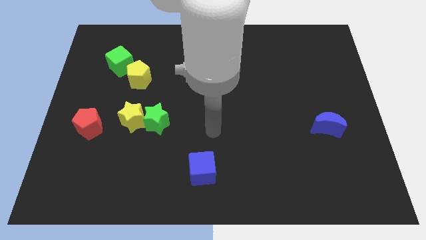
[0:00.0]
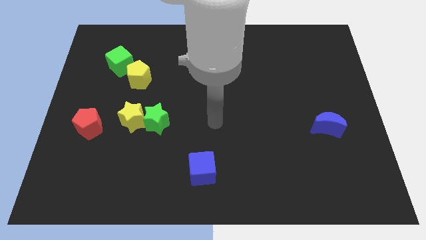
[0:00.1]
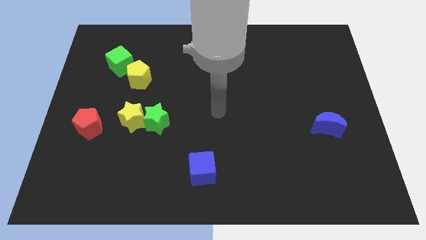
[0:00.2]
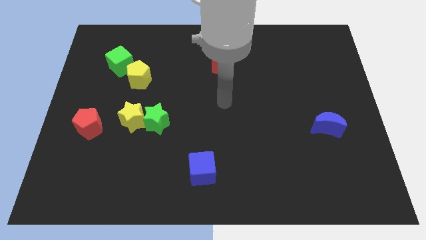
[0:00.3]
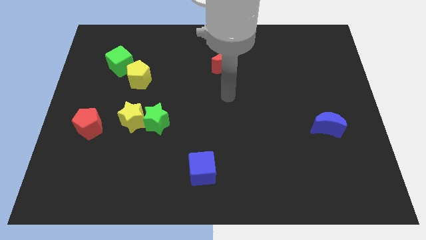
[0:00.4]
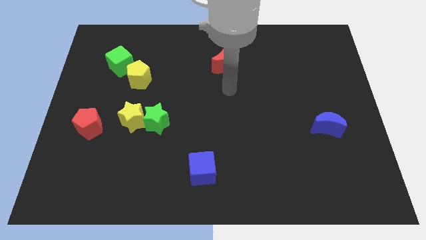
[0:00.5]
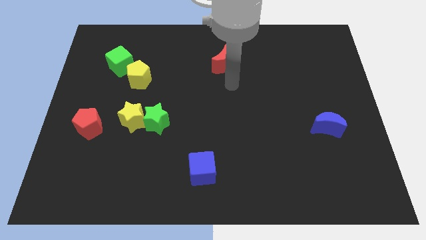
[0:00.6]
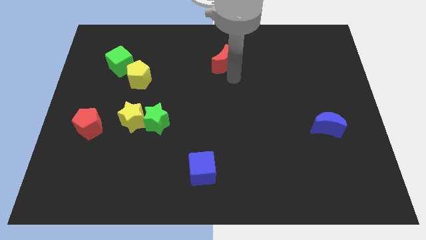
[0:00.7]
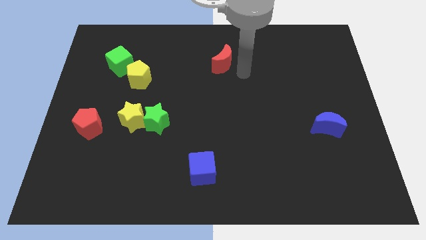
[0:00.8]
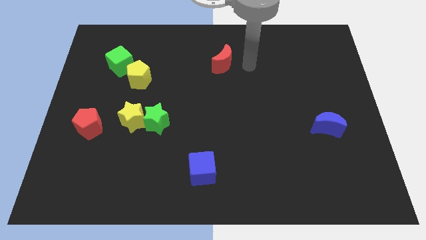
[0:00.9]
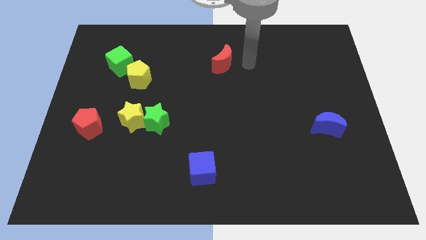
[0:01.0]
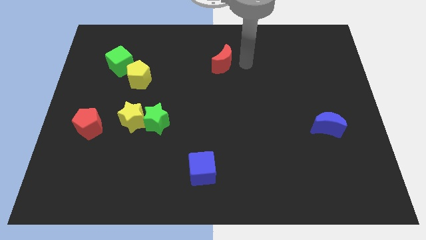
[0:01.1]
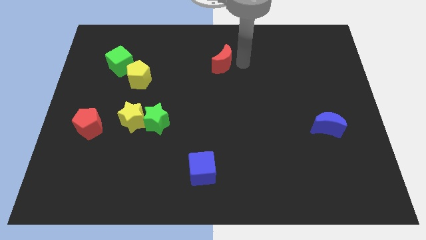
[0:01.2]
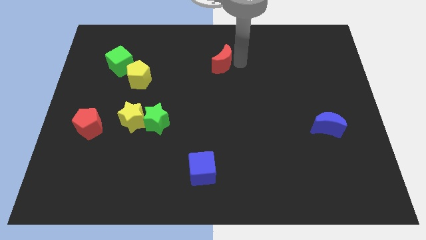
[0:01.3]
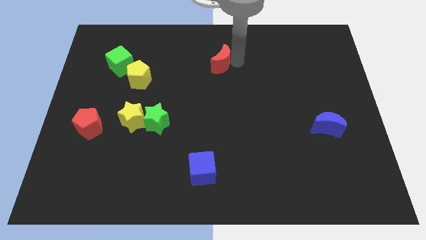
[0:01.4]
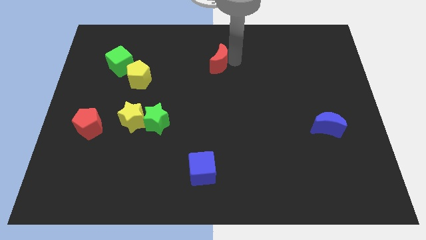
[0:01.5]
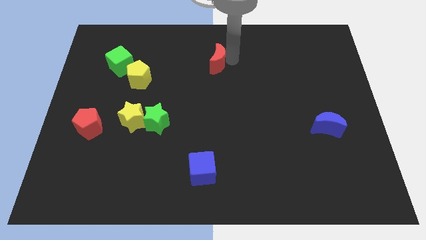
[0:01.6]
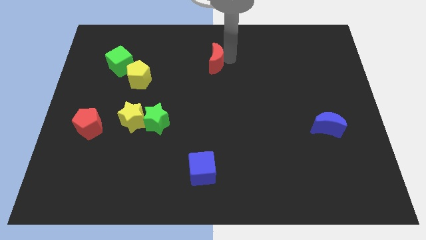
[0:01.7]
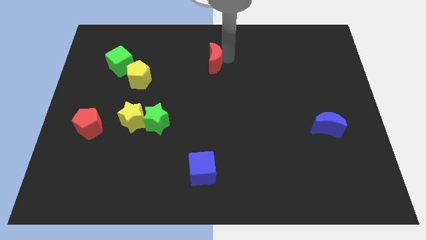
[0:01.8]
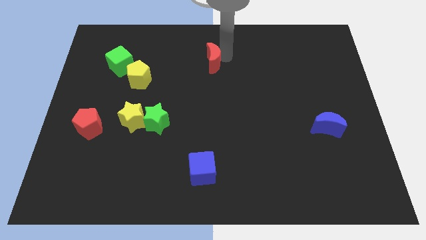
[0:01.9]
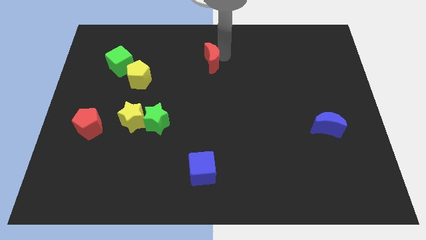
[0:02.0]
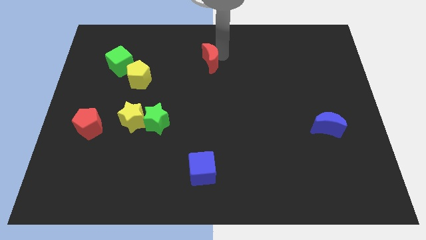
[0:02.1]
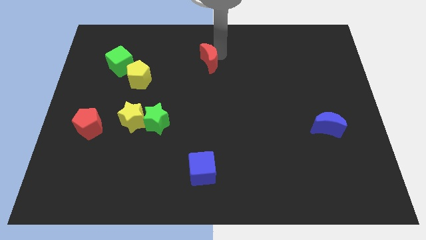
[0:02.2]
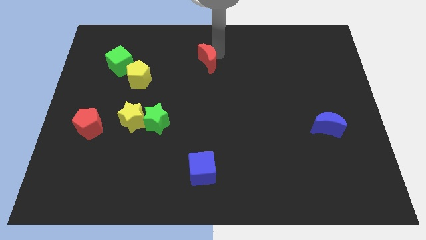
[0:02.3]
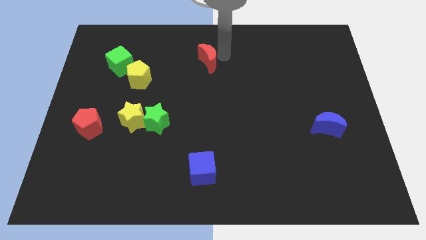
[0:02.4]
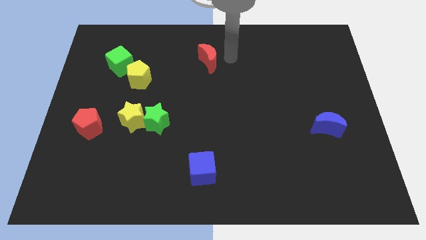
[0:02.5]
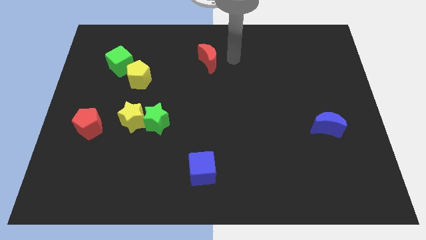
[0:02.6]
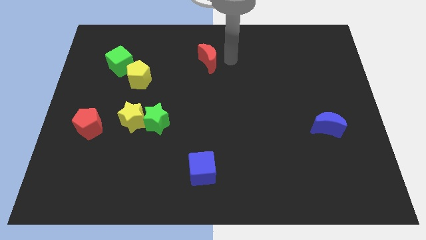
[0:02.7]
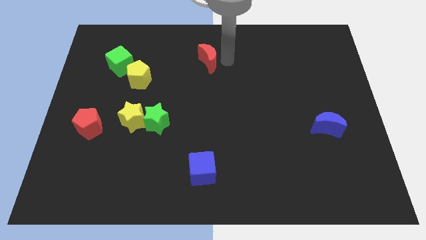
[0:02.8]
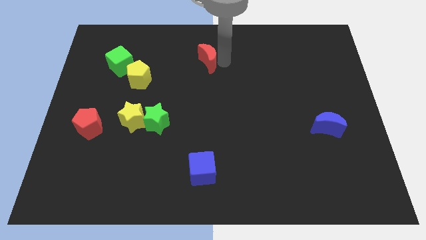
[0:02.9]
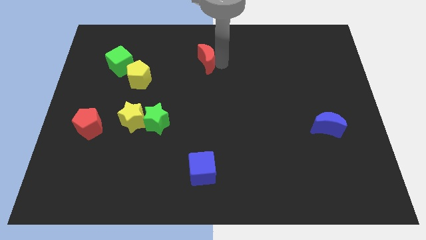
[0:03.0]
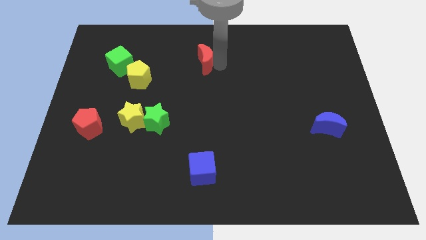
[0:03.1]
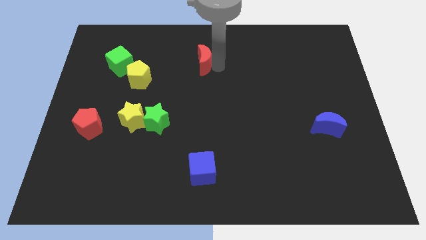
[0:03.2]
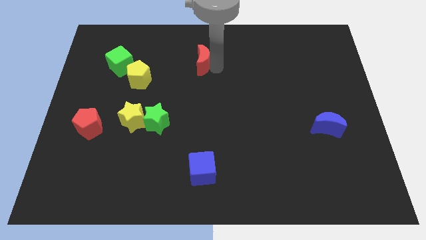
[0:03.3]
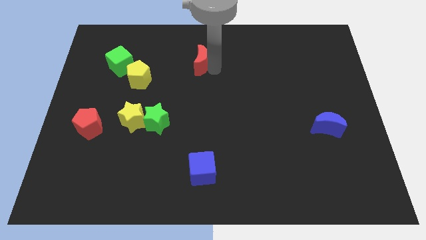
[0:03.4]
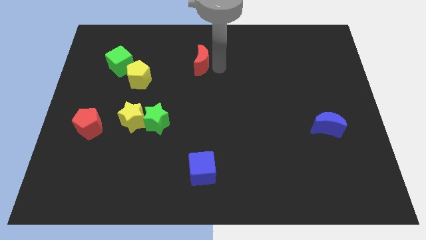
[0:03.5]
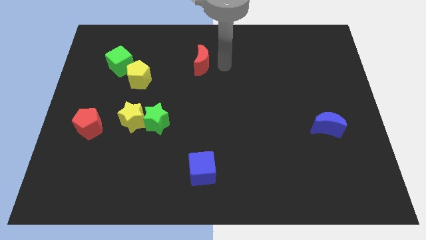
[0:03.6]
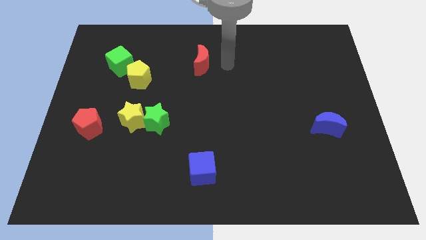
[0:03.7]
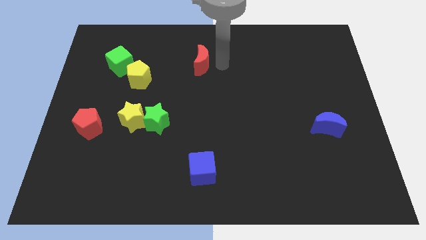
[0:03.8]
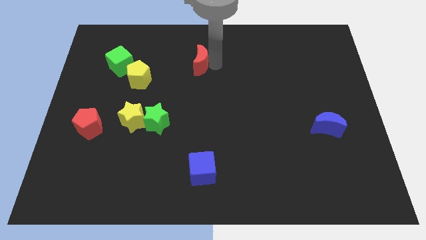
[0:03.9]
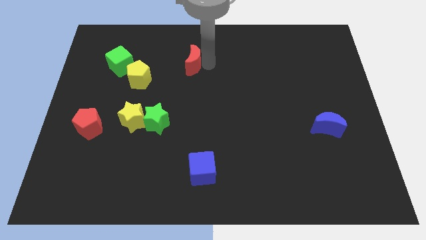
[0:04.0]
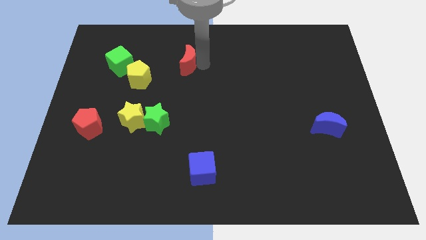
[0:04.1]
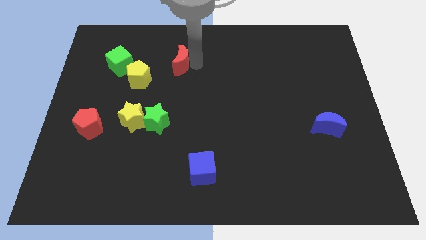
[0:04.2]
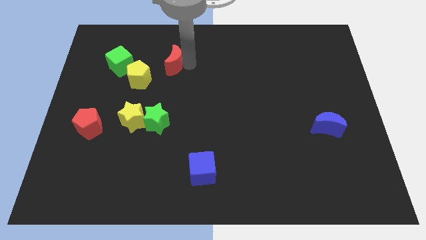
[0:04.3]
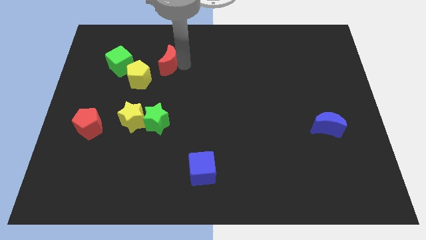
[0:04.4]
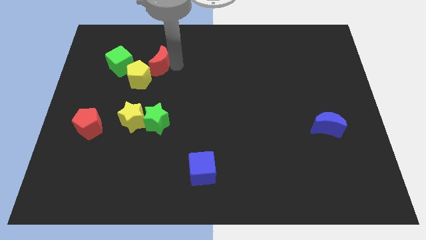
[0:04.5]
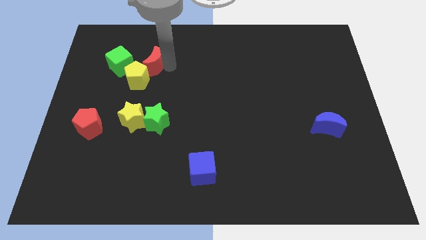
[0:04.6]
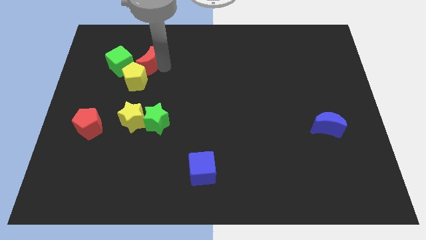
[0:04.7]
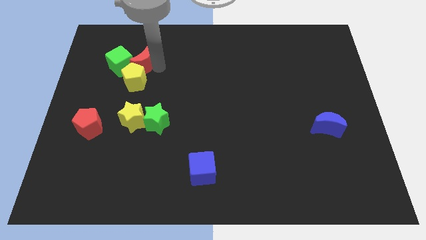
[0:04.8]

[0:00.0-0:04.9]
slide the red moon to the green cube

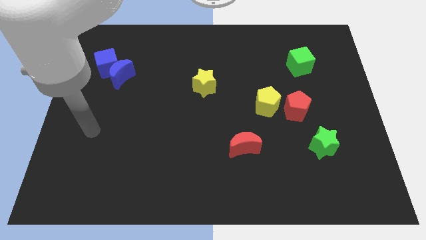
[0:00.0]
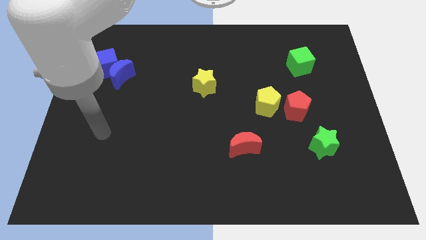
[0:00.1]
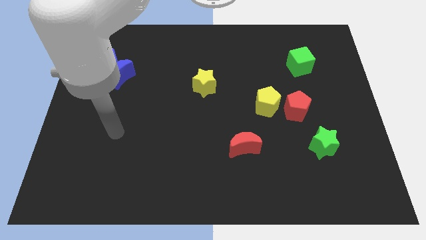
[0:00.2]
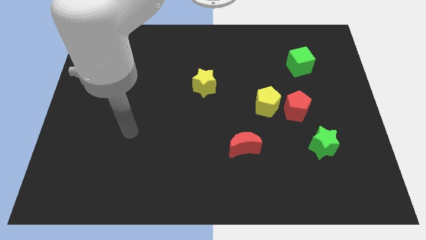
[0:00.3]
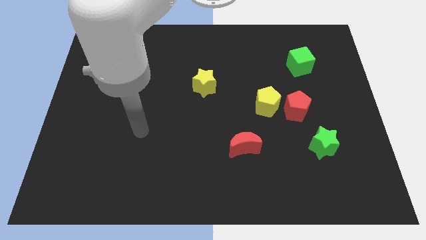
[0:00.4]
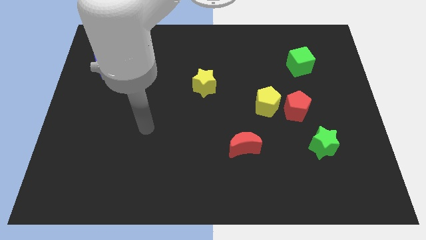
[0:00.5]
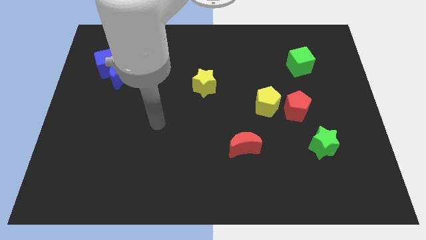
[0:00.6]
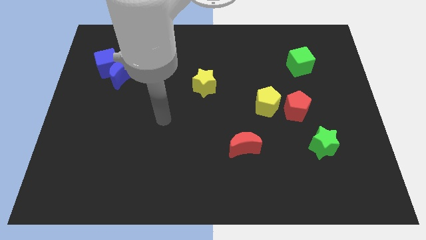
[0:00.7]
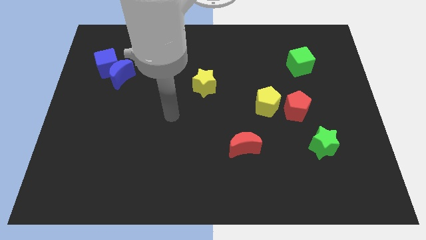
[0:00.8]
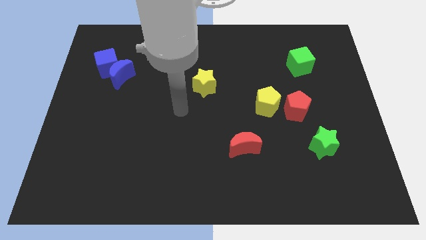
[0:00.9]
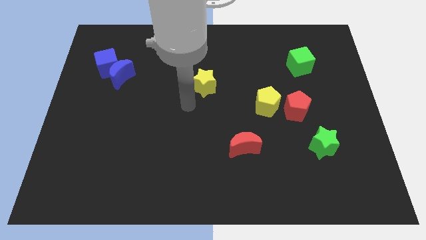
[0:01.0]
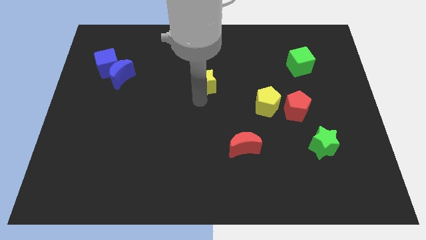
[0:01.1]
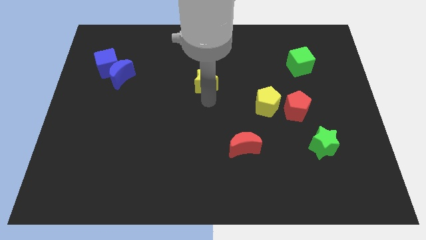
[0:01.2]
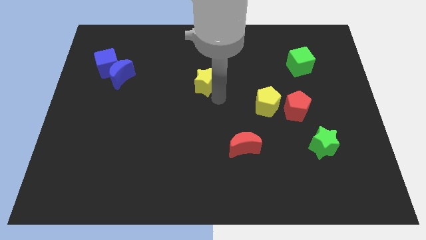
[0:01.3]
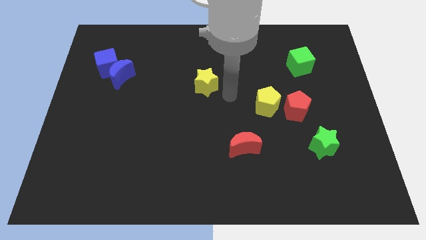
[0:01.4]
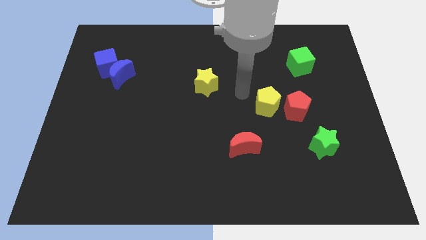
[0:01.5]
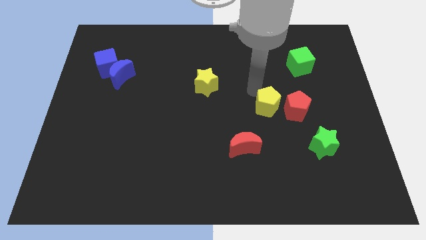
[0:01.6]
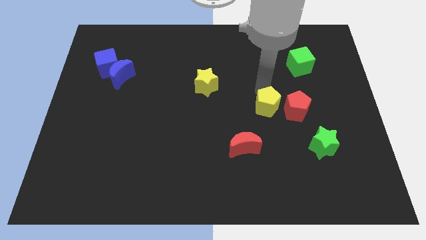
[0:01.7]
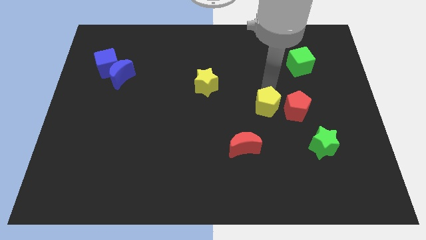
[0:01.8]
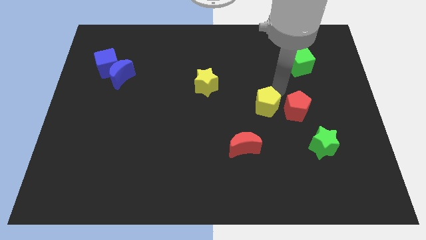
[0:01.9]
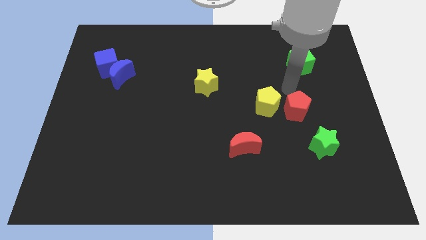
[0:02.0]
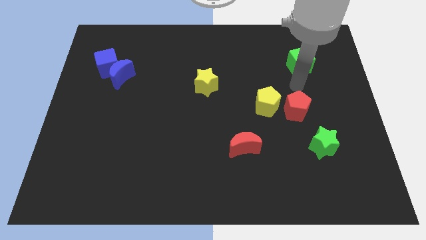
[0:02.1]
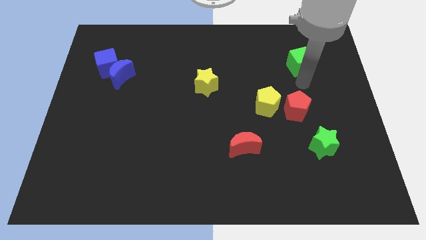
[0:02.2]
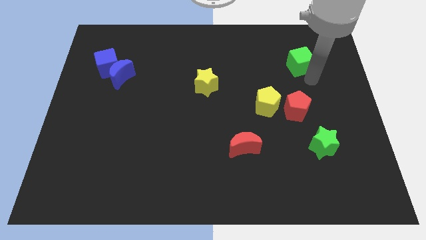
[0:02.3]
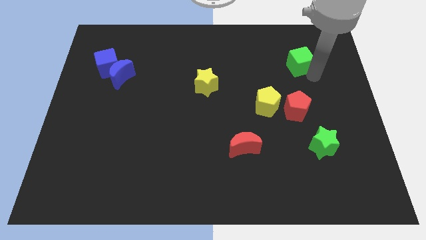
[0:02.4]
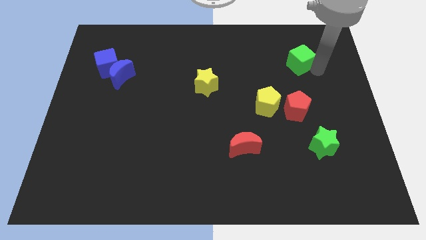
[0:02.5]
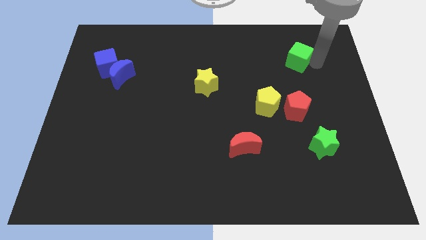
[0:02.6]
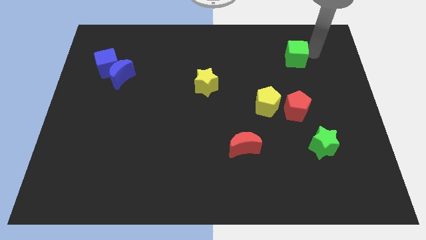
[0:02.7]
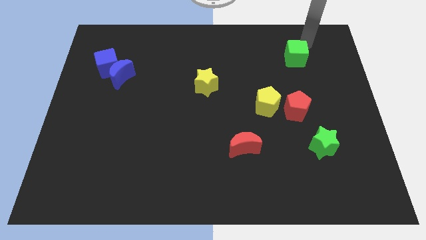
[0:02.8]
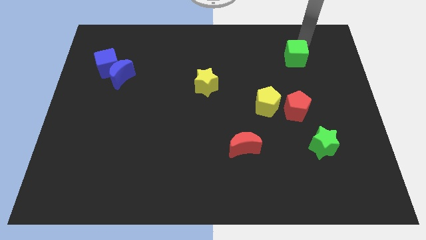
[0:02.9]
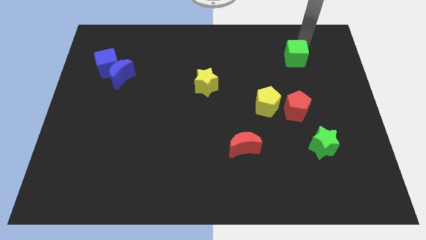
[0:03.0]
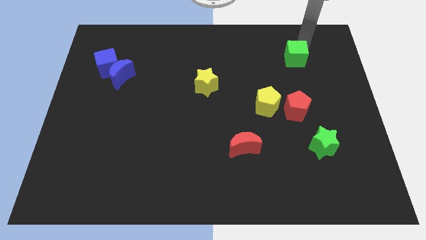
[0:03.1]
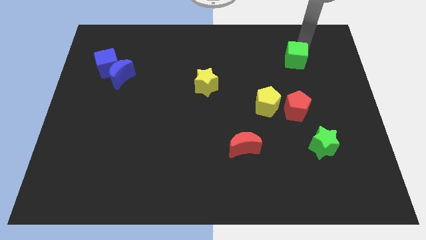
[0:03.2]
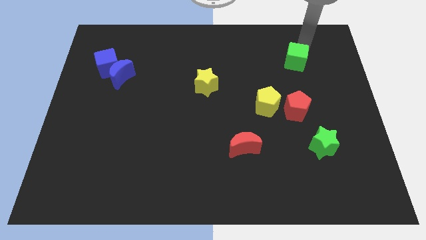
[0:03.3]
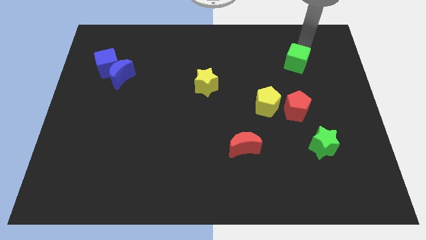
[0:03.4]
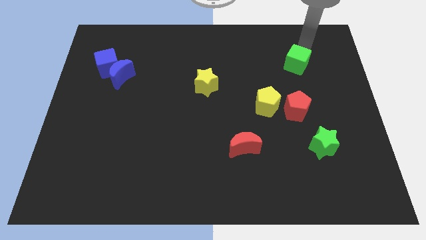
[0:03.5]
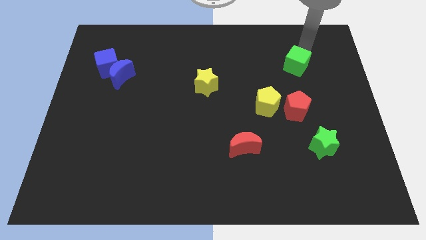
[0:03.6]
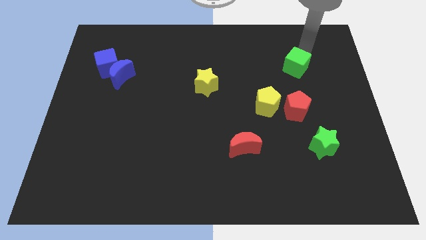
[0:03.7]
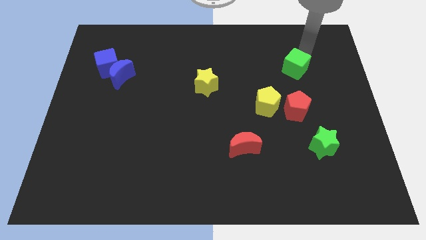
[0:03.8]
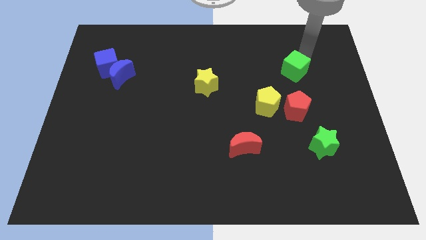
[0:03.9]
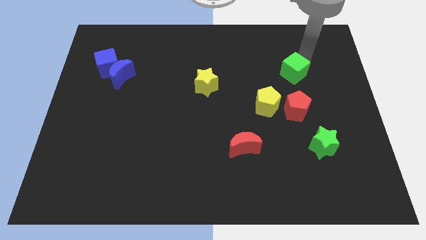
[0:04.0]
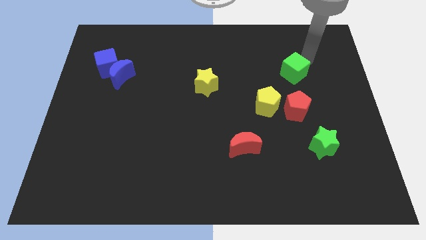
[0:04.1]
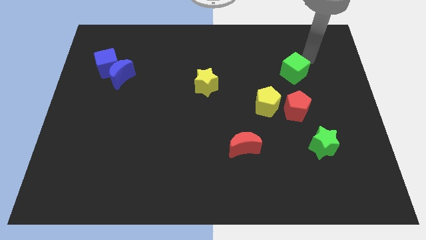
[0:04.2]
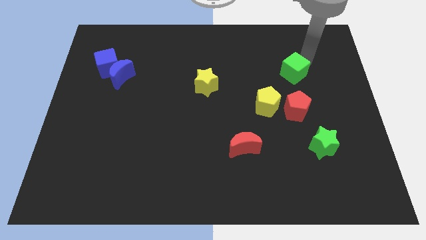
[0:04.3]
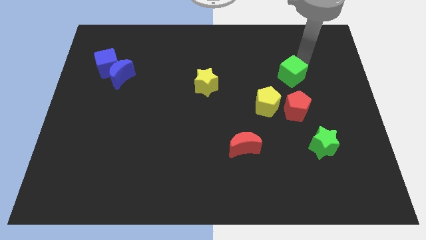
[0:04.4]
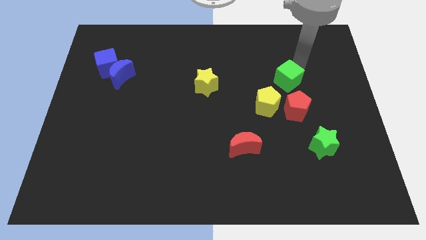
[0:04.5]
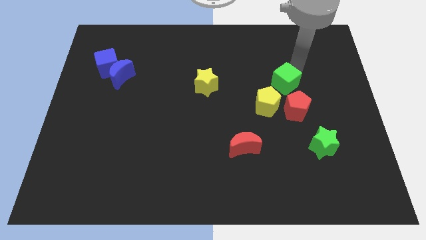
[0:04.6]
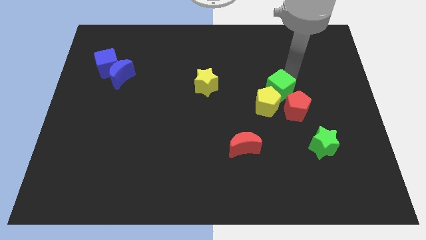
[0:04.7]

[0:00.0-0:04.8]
put the green cube towards the yellow pentagon
